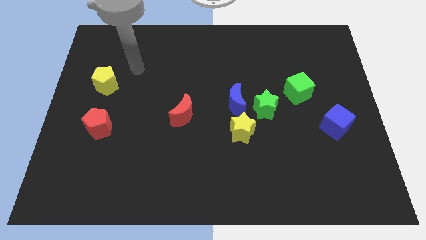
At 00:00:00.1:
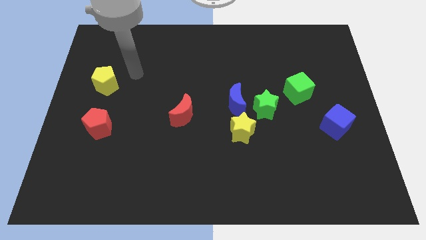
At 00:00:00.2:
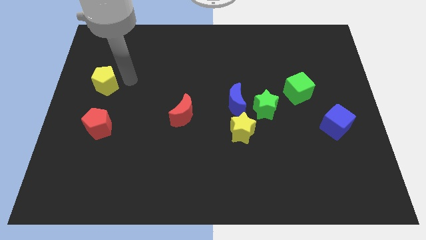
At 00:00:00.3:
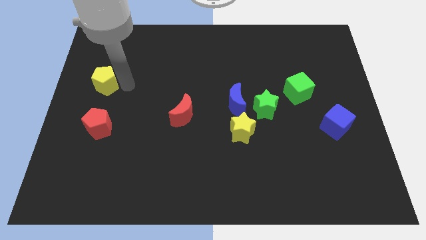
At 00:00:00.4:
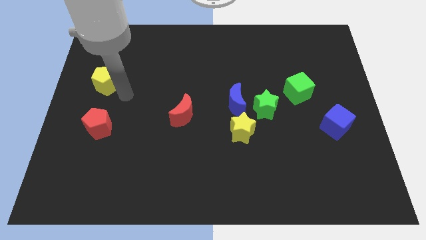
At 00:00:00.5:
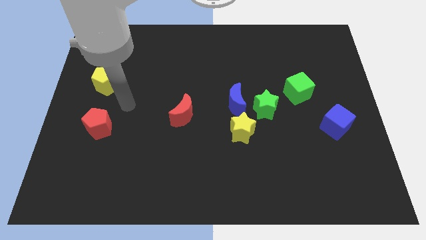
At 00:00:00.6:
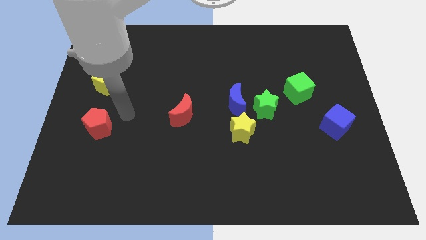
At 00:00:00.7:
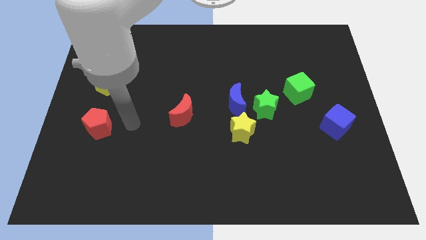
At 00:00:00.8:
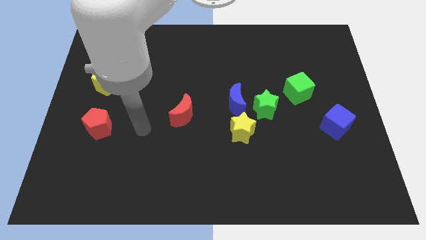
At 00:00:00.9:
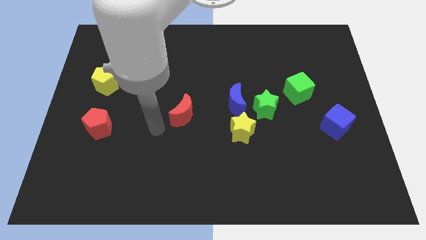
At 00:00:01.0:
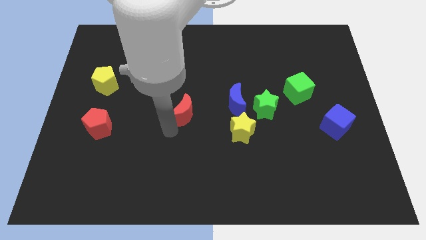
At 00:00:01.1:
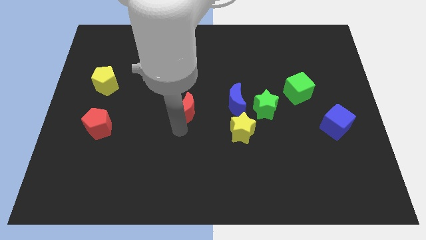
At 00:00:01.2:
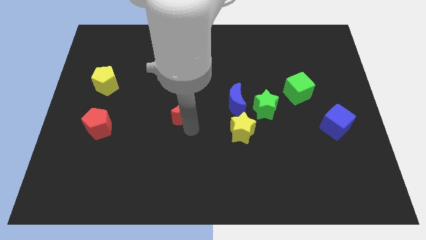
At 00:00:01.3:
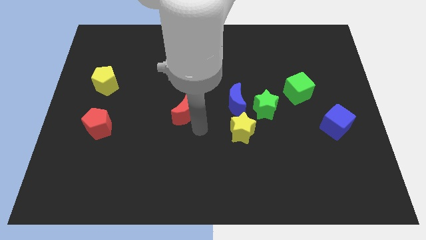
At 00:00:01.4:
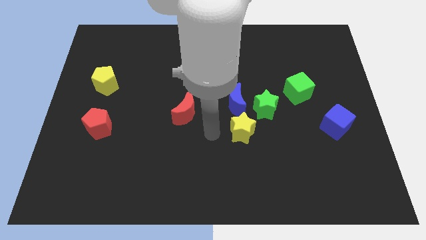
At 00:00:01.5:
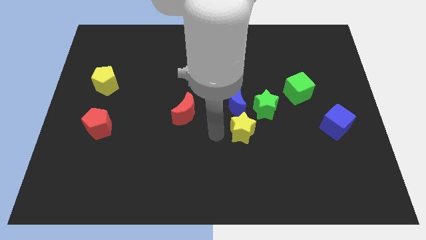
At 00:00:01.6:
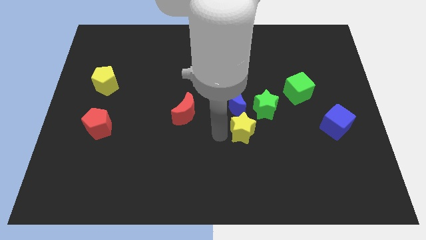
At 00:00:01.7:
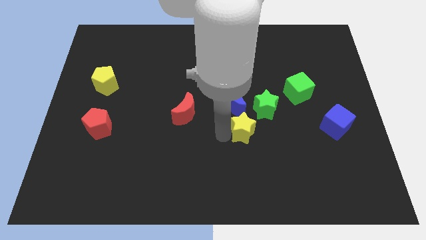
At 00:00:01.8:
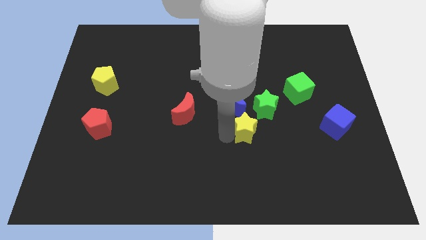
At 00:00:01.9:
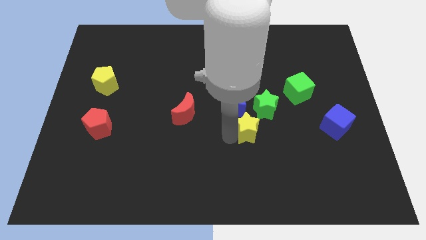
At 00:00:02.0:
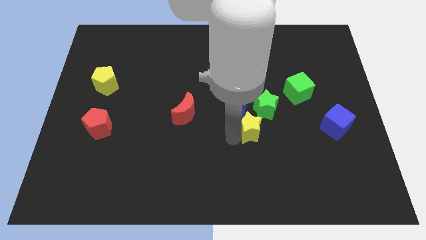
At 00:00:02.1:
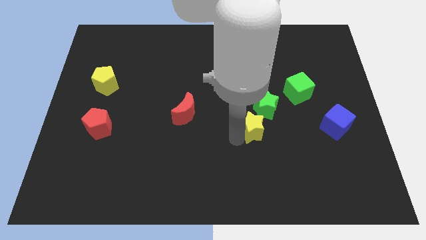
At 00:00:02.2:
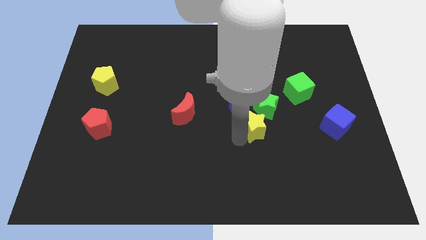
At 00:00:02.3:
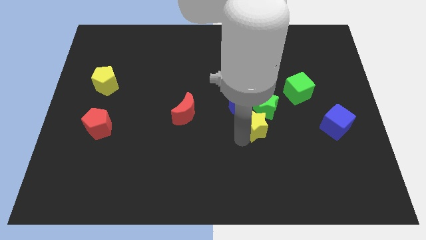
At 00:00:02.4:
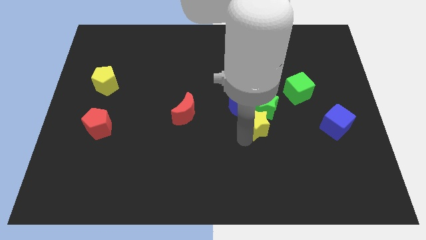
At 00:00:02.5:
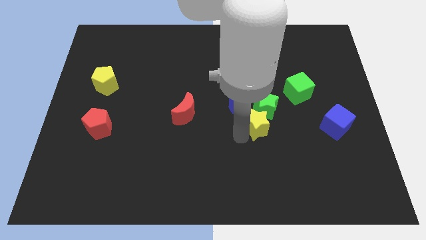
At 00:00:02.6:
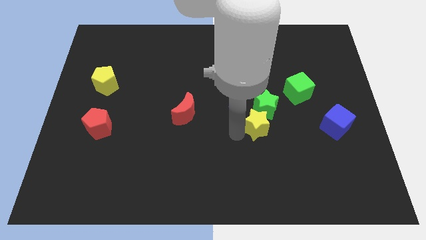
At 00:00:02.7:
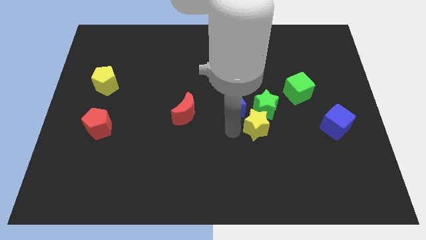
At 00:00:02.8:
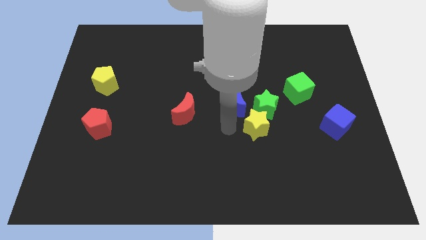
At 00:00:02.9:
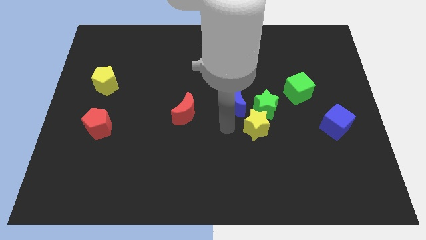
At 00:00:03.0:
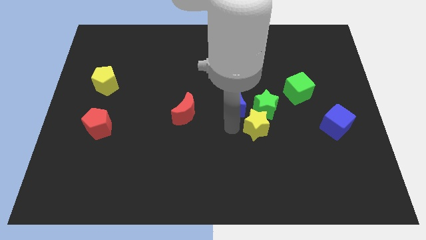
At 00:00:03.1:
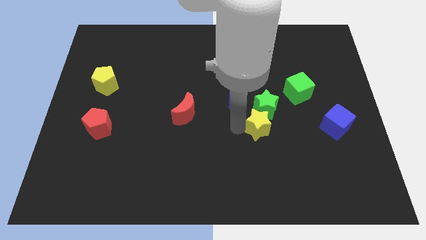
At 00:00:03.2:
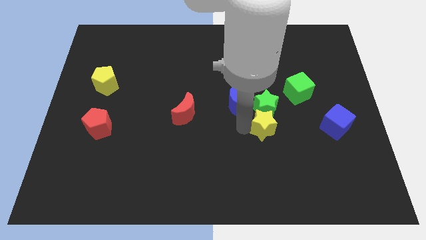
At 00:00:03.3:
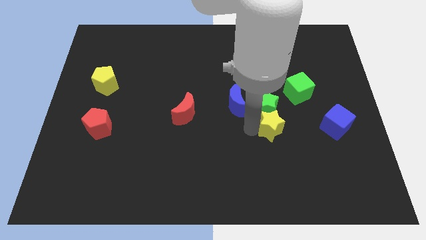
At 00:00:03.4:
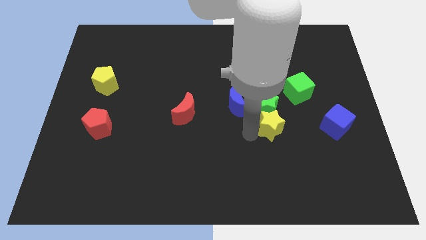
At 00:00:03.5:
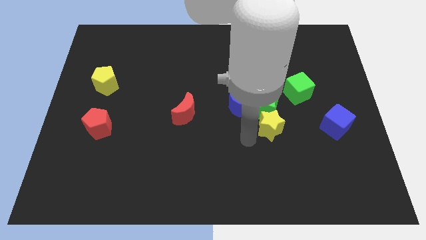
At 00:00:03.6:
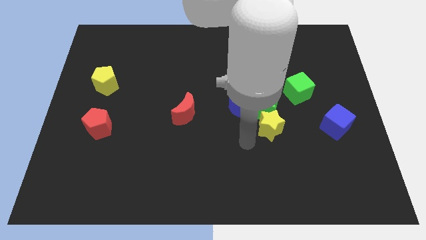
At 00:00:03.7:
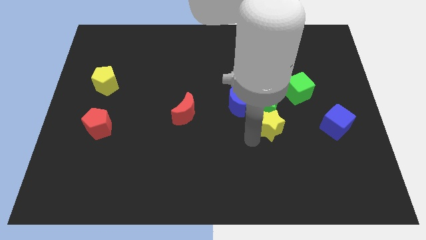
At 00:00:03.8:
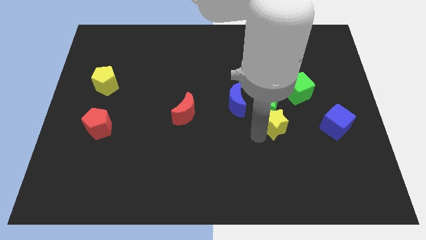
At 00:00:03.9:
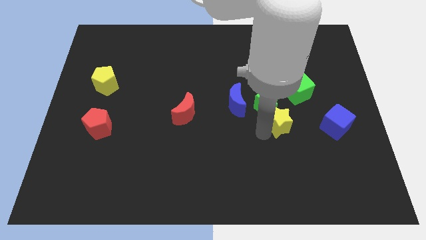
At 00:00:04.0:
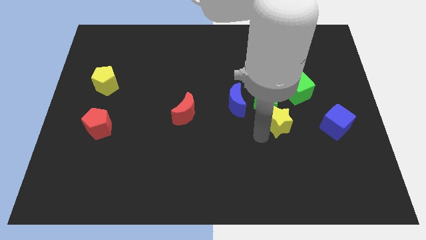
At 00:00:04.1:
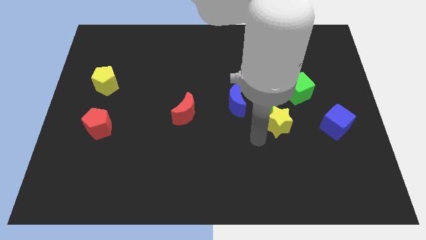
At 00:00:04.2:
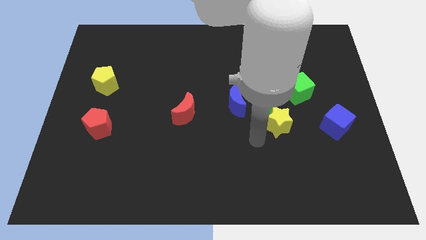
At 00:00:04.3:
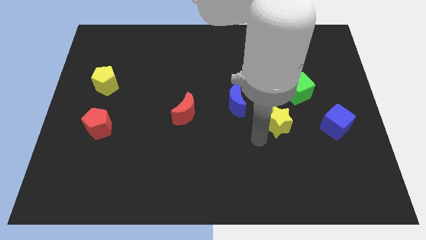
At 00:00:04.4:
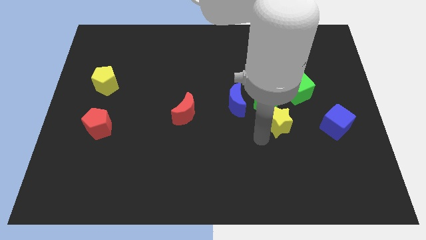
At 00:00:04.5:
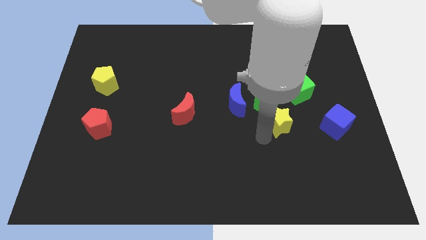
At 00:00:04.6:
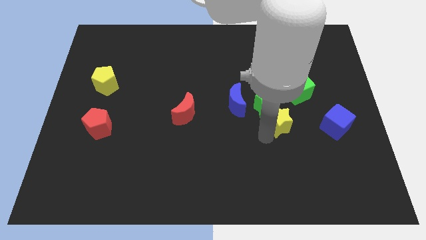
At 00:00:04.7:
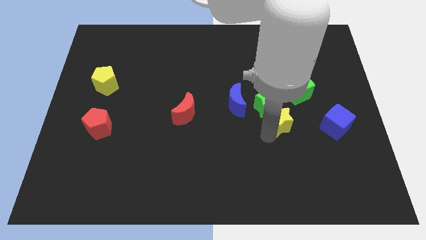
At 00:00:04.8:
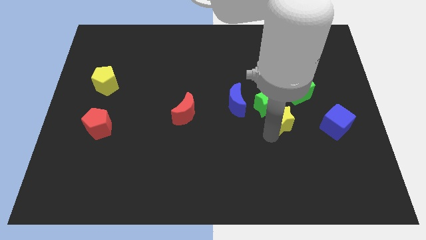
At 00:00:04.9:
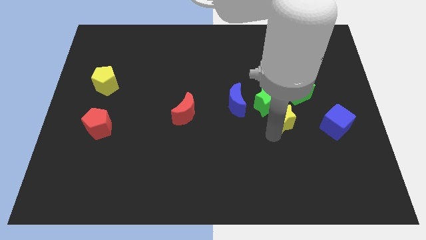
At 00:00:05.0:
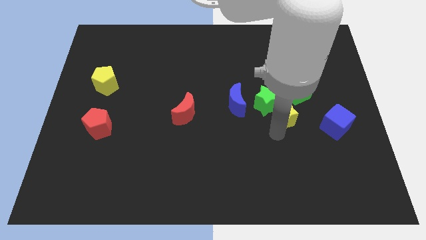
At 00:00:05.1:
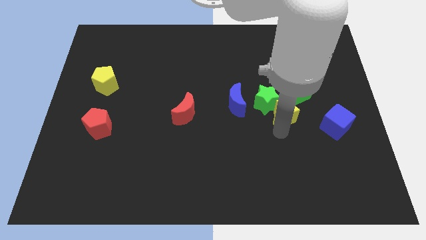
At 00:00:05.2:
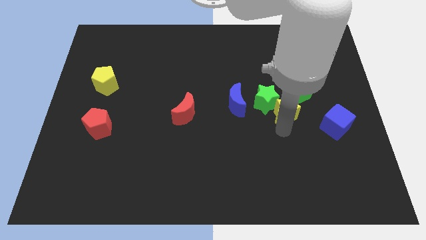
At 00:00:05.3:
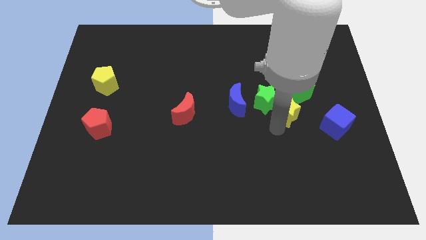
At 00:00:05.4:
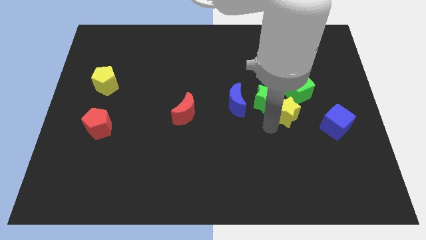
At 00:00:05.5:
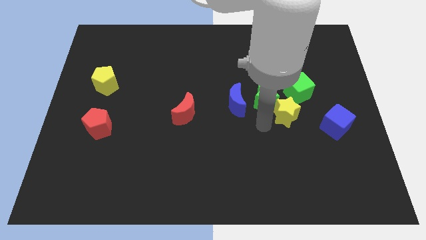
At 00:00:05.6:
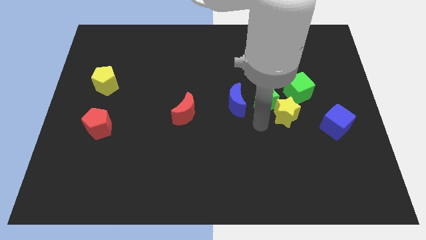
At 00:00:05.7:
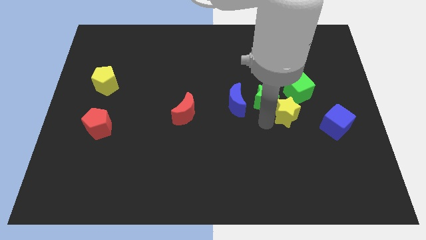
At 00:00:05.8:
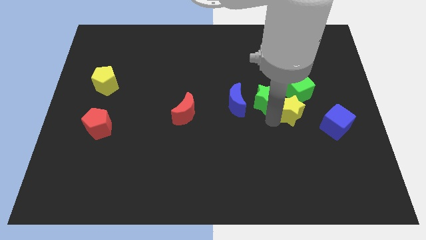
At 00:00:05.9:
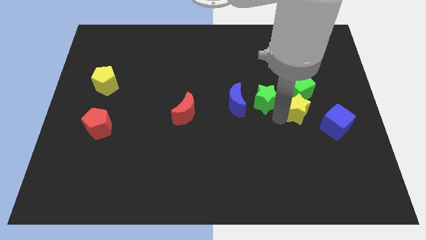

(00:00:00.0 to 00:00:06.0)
put the yellow star diagonally up and to the left of the blue cube
